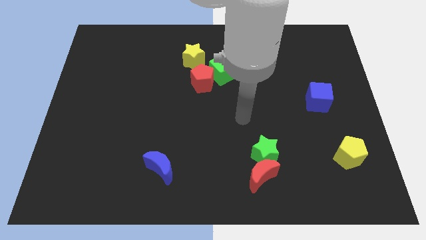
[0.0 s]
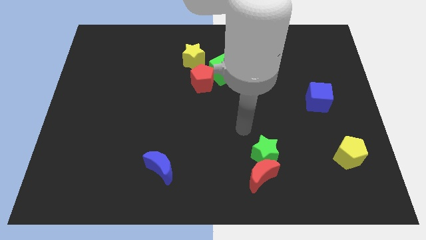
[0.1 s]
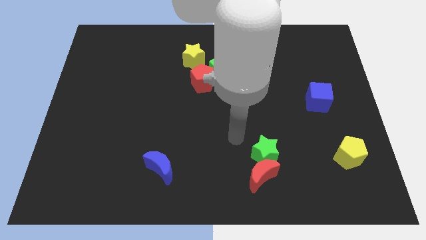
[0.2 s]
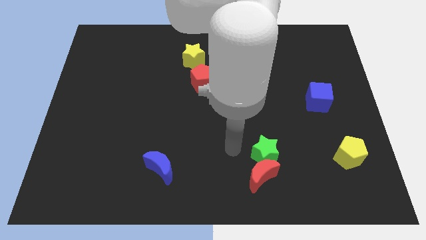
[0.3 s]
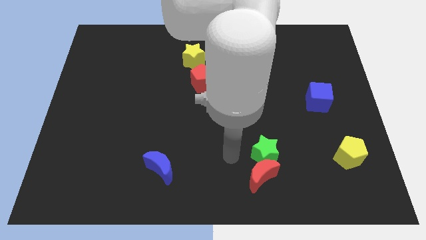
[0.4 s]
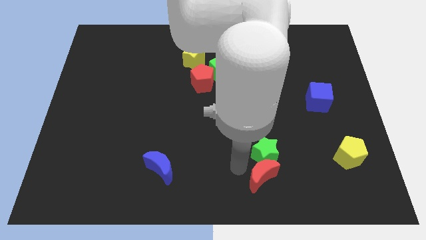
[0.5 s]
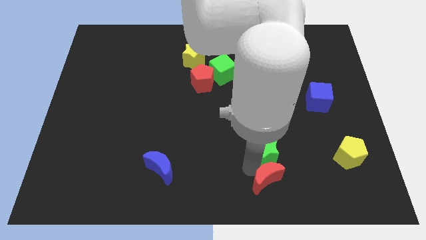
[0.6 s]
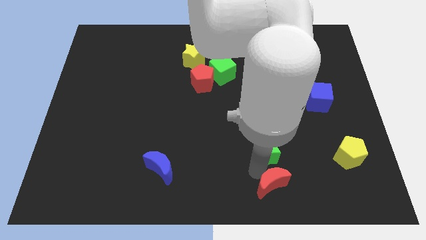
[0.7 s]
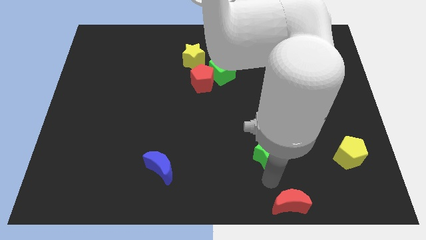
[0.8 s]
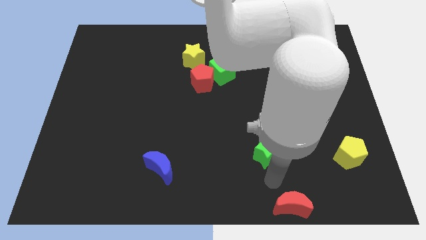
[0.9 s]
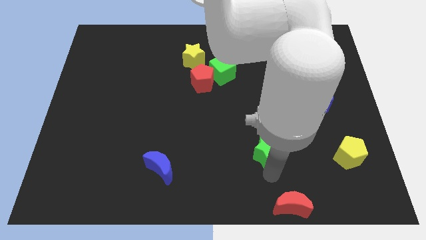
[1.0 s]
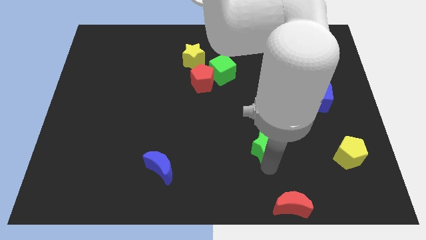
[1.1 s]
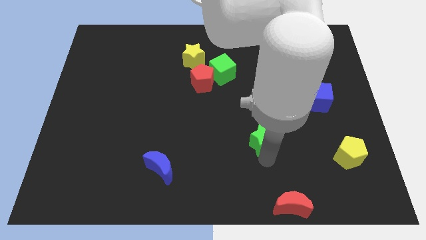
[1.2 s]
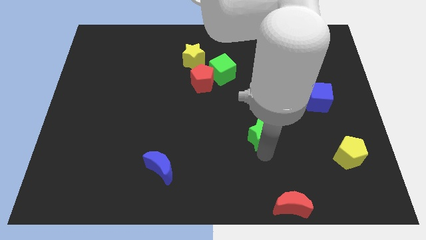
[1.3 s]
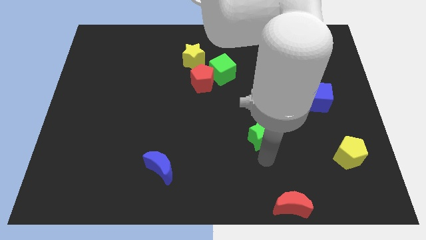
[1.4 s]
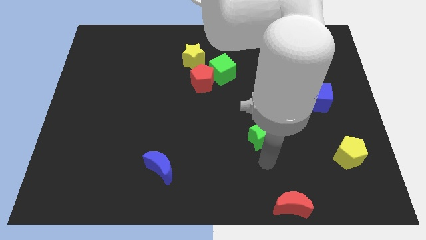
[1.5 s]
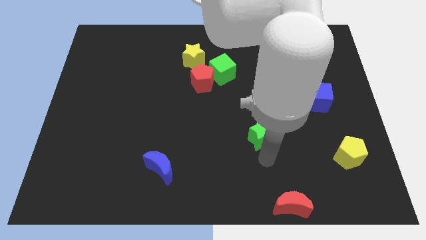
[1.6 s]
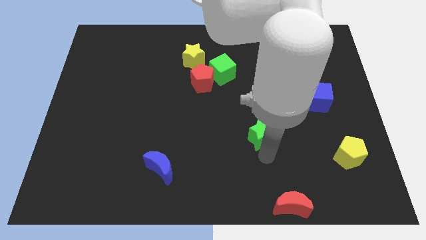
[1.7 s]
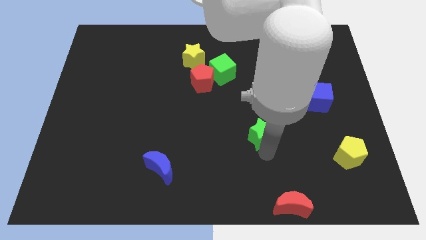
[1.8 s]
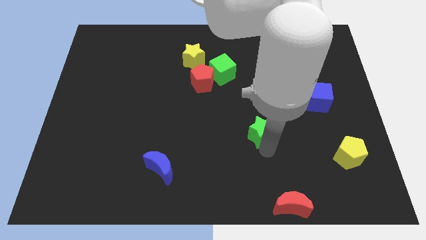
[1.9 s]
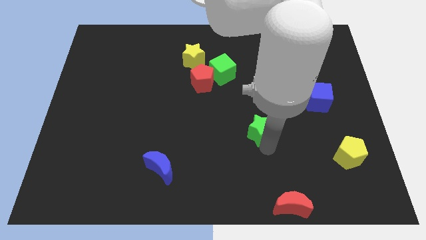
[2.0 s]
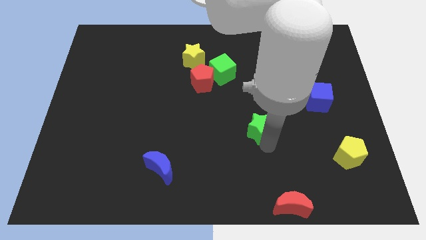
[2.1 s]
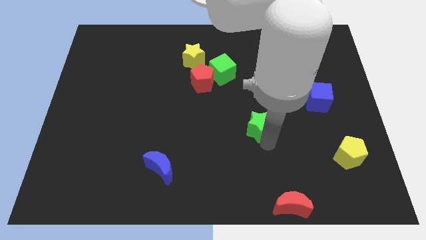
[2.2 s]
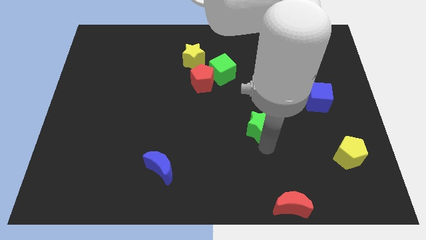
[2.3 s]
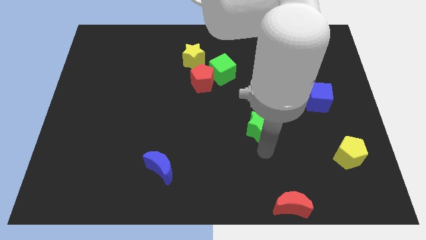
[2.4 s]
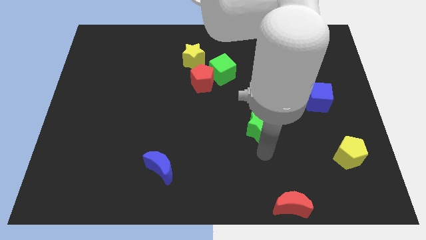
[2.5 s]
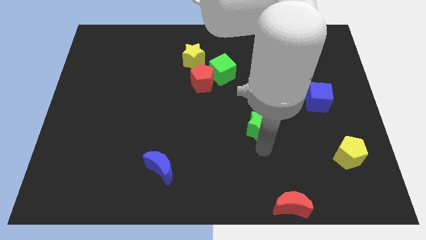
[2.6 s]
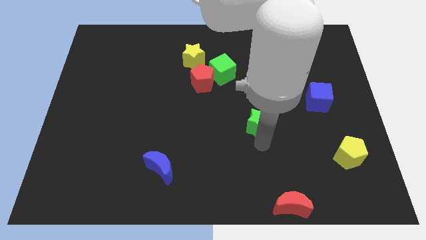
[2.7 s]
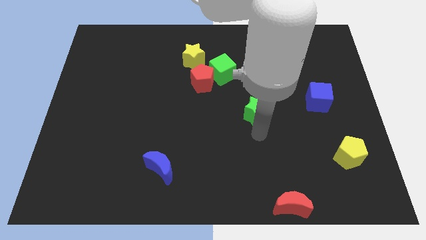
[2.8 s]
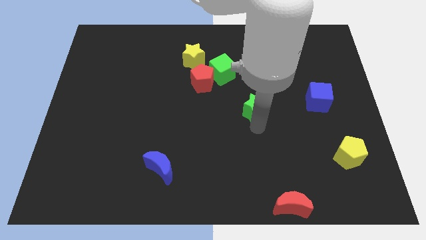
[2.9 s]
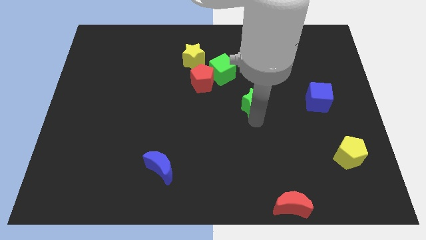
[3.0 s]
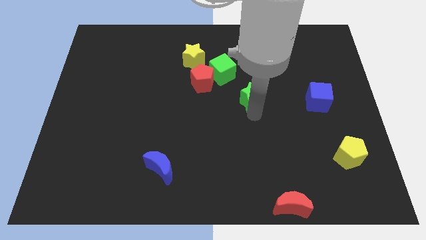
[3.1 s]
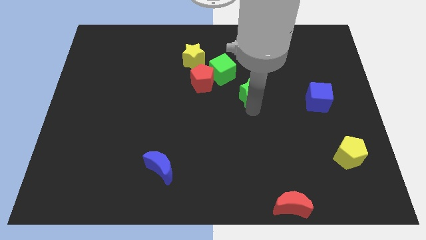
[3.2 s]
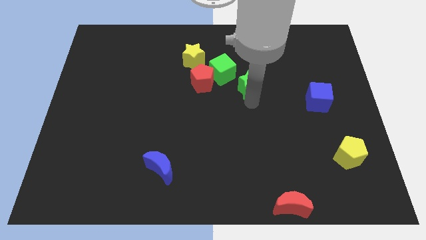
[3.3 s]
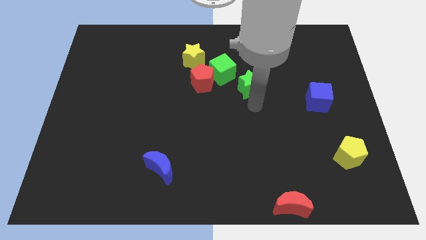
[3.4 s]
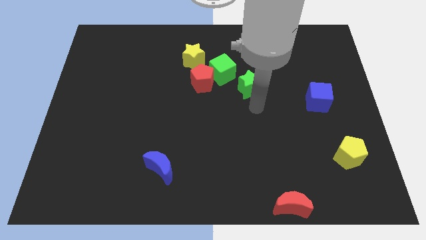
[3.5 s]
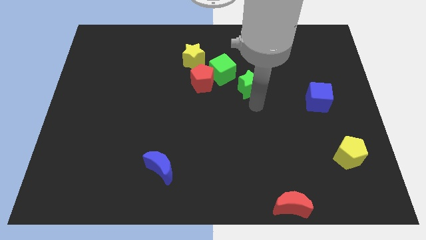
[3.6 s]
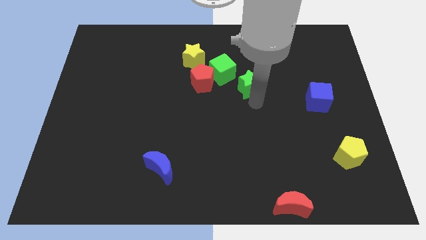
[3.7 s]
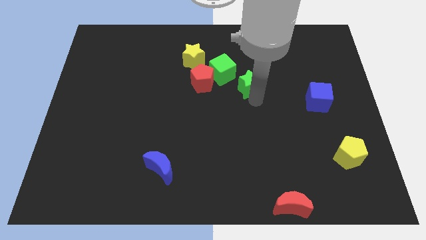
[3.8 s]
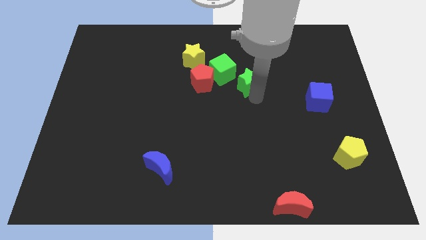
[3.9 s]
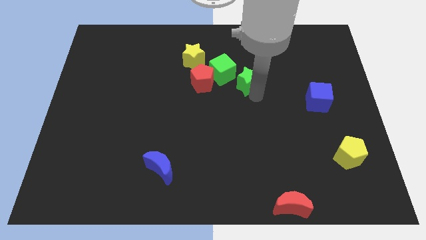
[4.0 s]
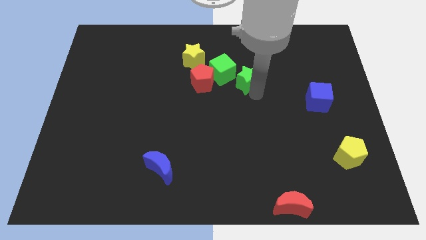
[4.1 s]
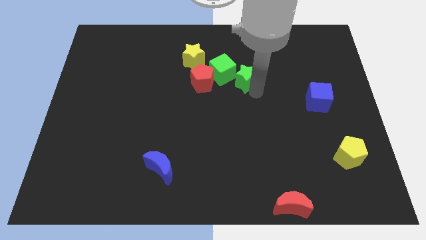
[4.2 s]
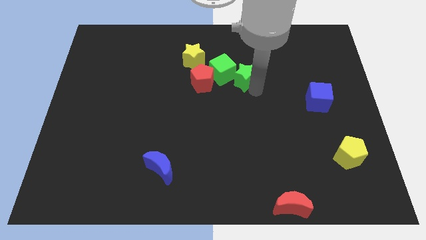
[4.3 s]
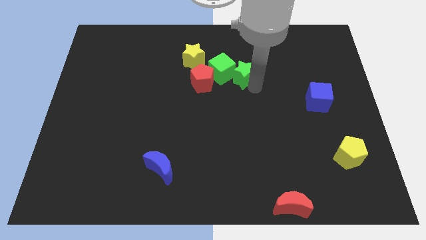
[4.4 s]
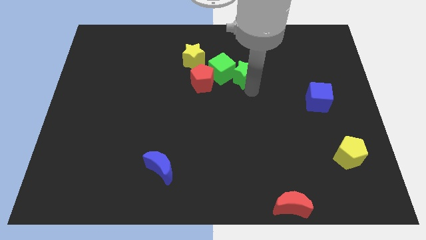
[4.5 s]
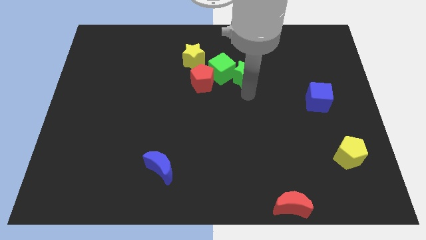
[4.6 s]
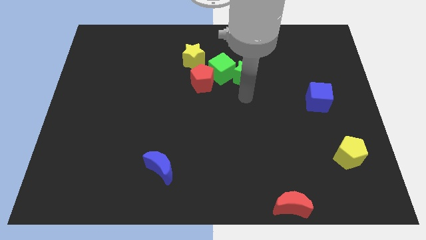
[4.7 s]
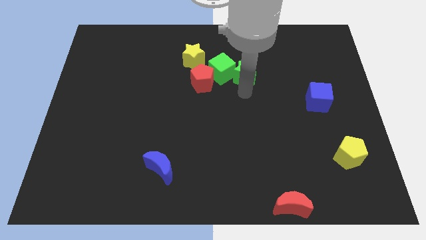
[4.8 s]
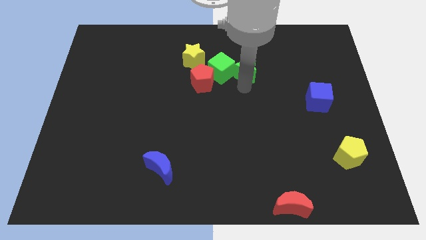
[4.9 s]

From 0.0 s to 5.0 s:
move the green star diagonally up and to the right of the green cube
